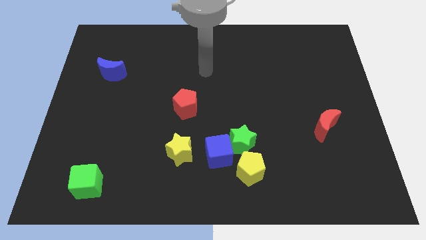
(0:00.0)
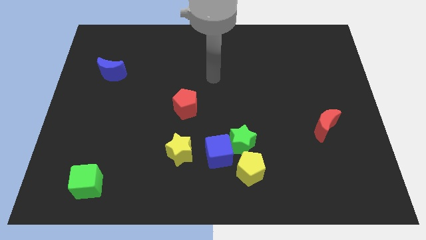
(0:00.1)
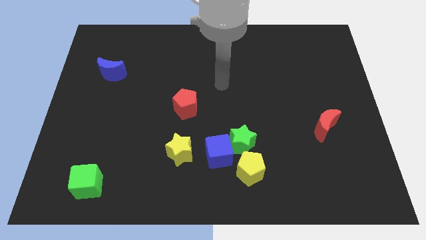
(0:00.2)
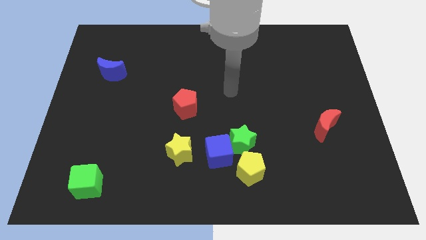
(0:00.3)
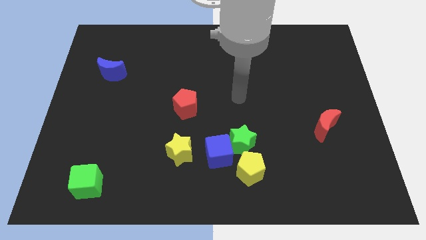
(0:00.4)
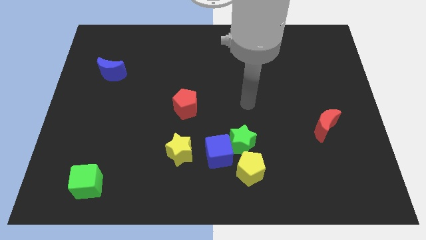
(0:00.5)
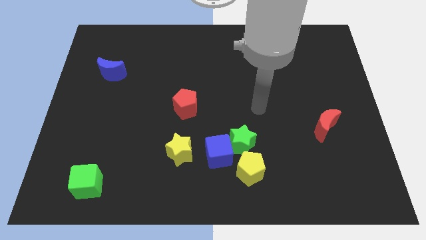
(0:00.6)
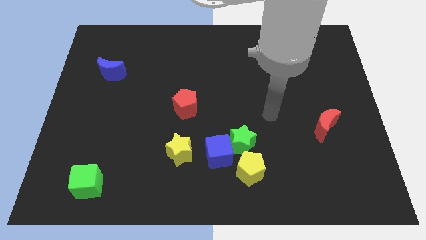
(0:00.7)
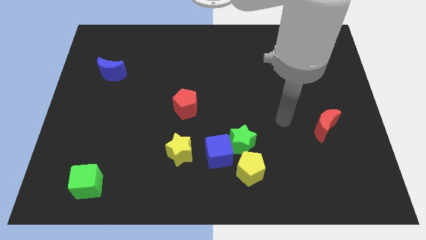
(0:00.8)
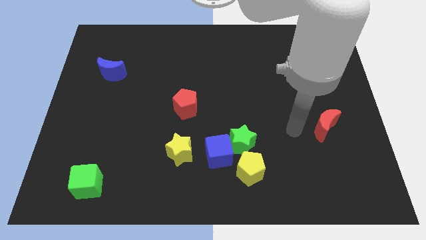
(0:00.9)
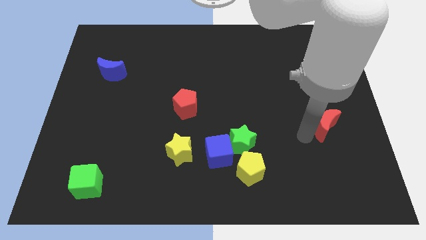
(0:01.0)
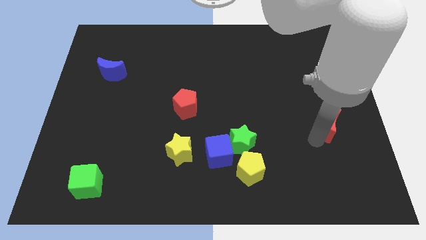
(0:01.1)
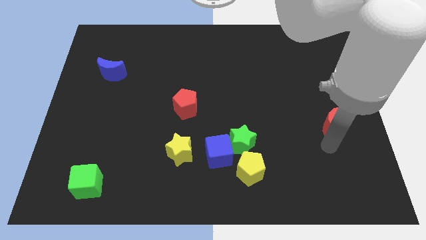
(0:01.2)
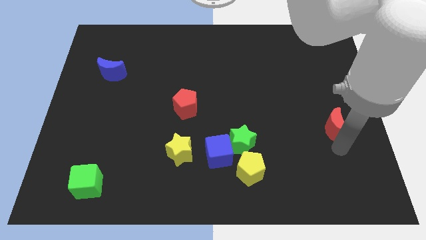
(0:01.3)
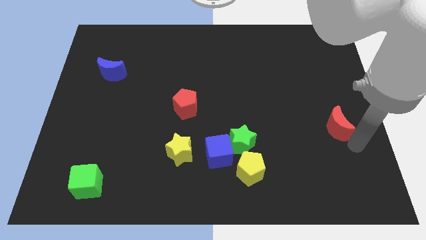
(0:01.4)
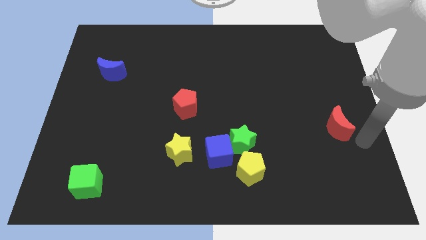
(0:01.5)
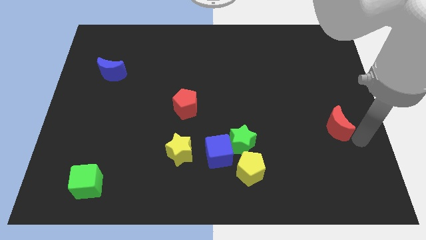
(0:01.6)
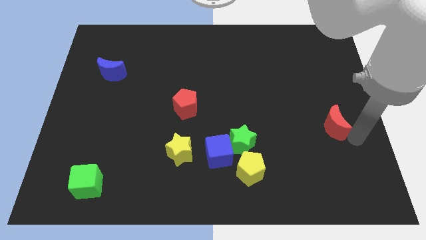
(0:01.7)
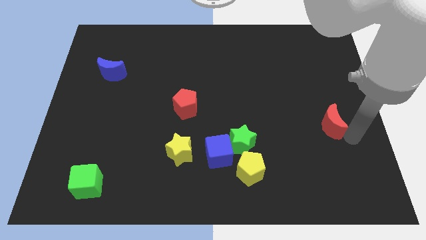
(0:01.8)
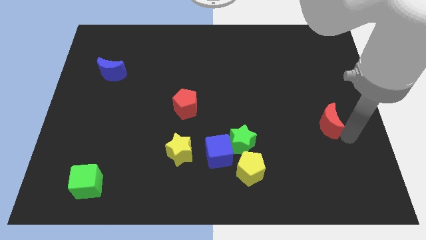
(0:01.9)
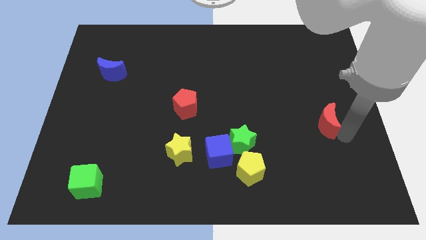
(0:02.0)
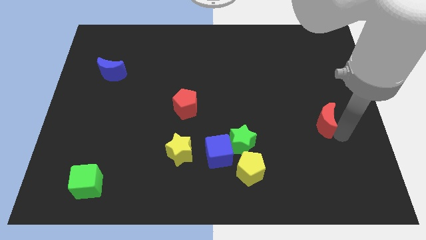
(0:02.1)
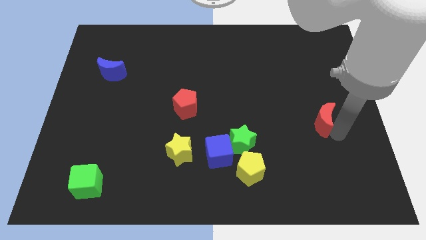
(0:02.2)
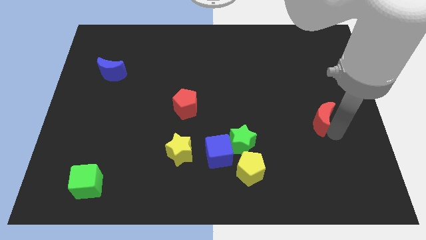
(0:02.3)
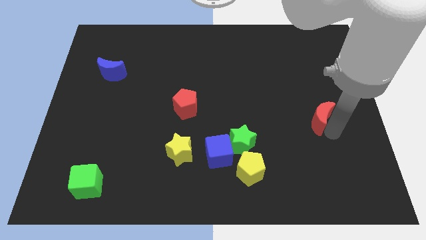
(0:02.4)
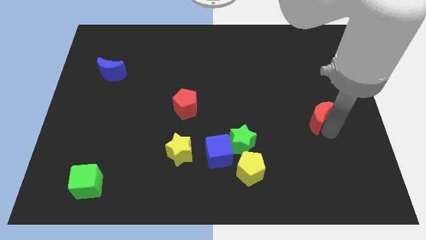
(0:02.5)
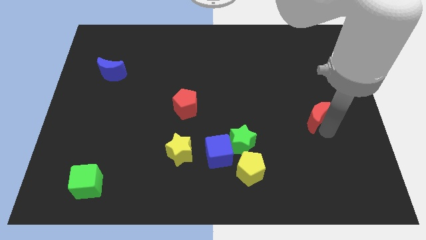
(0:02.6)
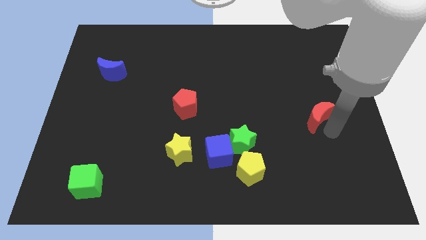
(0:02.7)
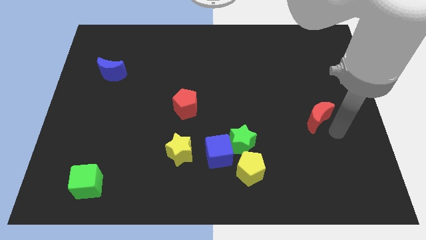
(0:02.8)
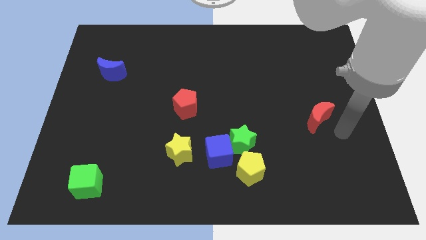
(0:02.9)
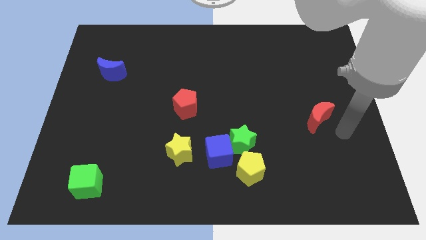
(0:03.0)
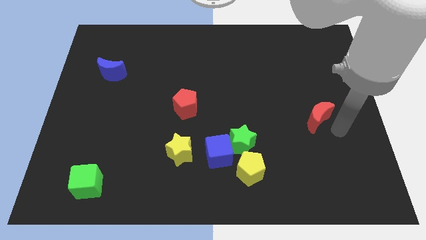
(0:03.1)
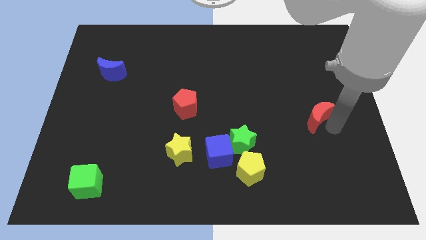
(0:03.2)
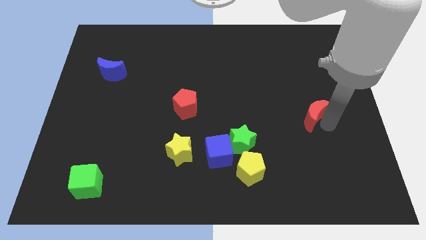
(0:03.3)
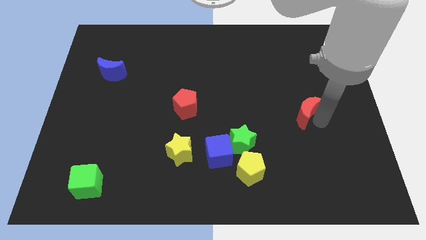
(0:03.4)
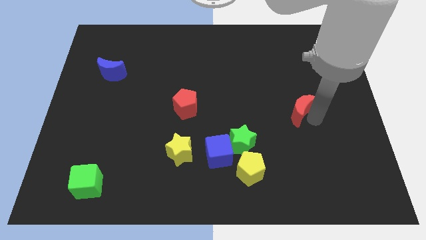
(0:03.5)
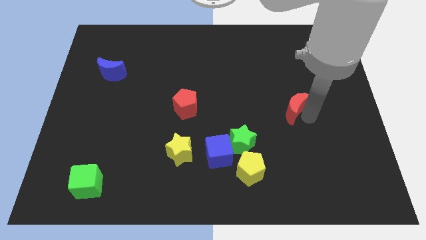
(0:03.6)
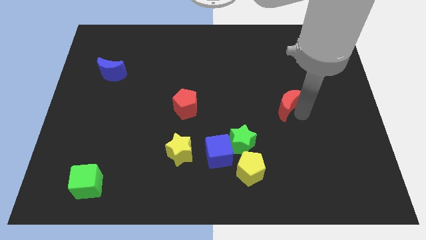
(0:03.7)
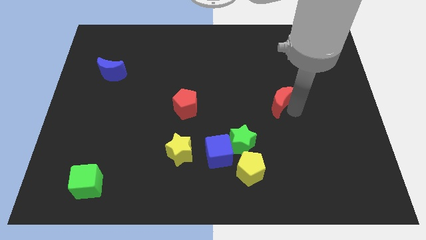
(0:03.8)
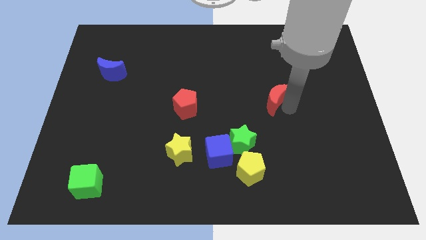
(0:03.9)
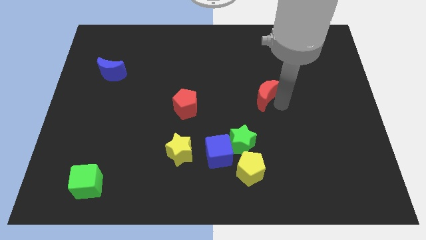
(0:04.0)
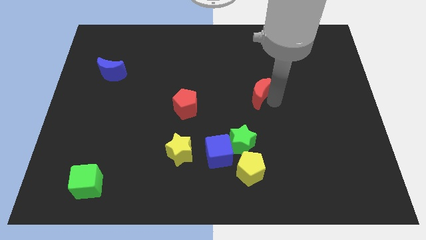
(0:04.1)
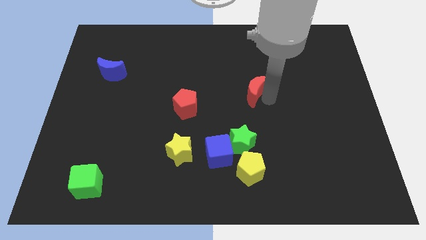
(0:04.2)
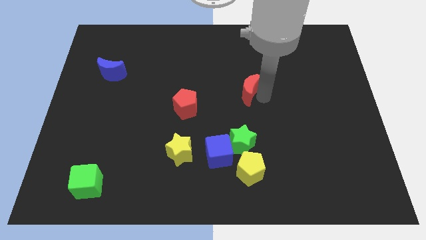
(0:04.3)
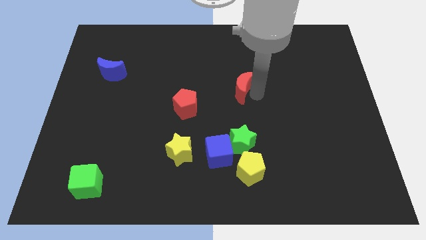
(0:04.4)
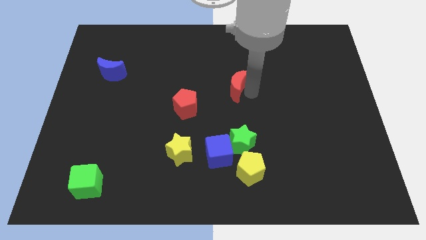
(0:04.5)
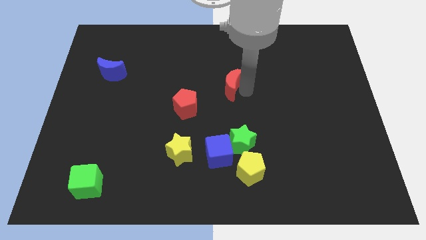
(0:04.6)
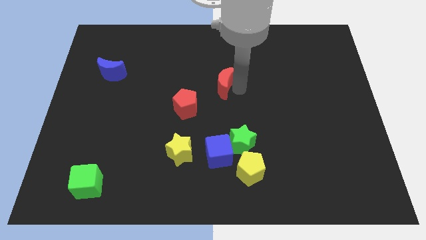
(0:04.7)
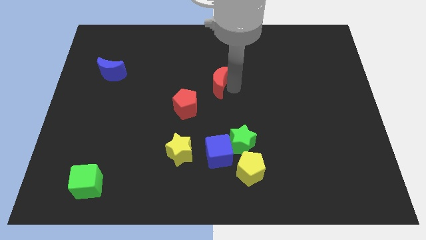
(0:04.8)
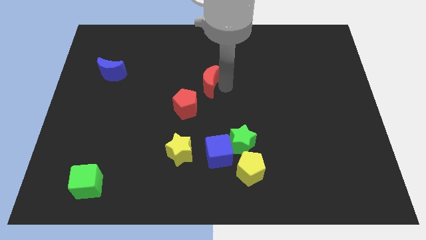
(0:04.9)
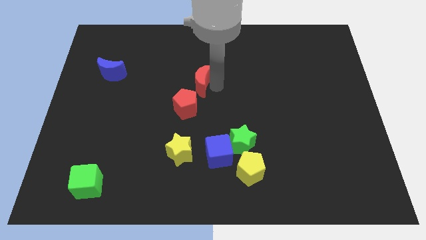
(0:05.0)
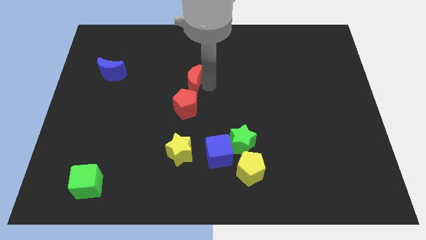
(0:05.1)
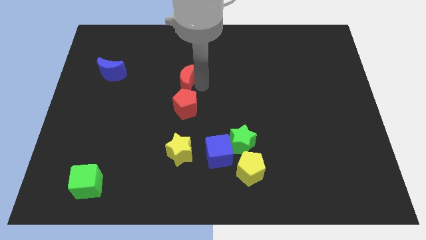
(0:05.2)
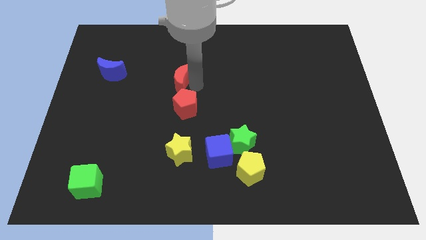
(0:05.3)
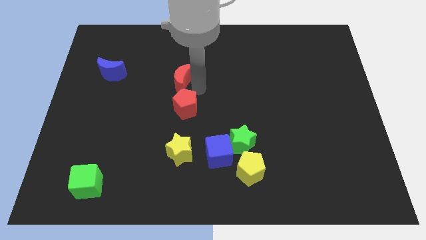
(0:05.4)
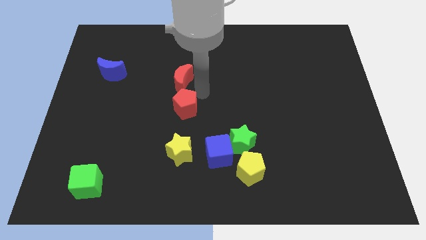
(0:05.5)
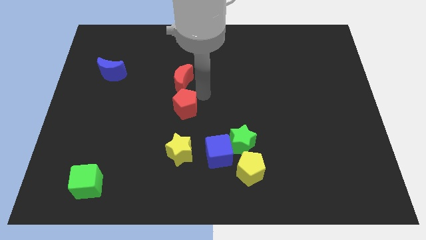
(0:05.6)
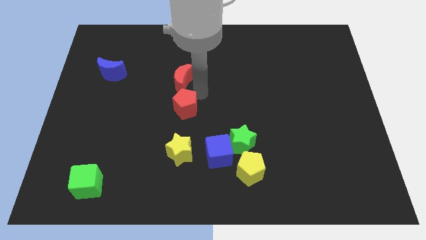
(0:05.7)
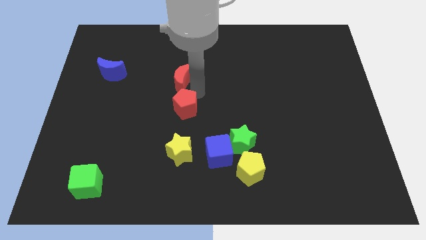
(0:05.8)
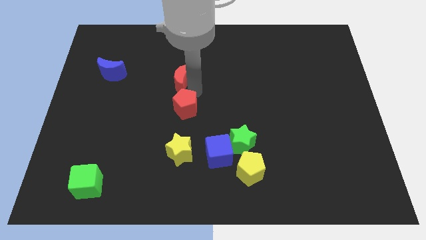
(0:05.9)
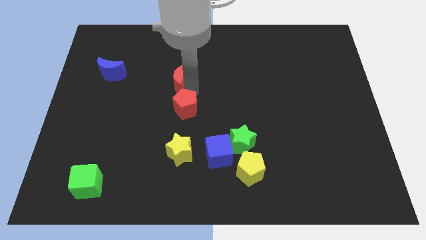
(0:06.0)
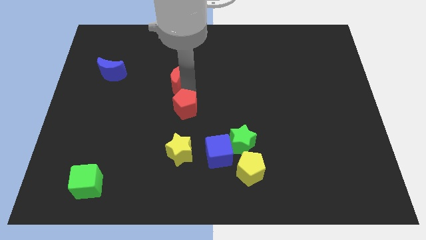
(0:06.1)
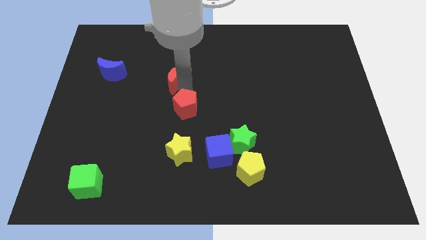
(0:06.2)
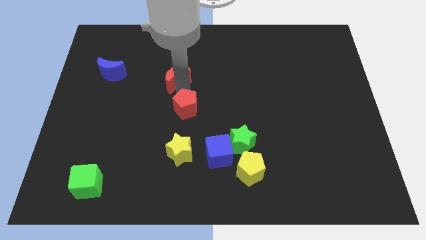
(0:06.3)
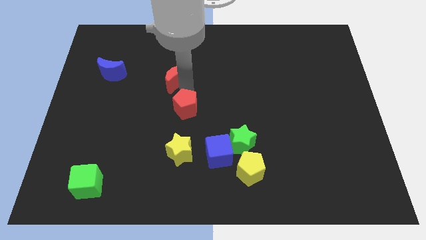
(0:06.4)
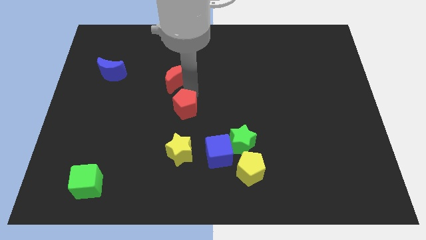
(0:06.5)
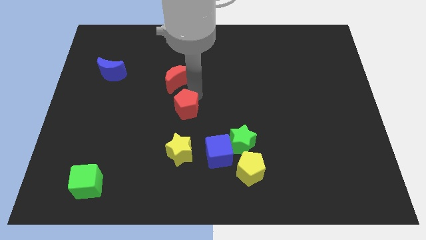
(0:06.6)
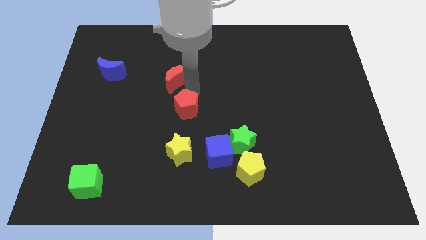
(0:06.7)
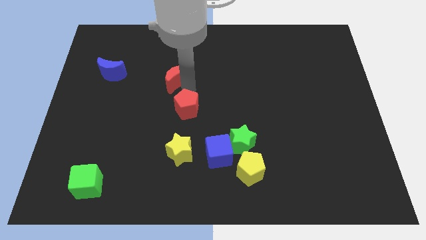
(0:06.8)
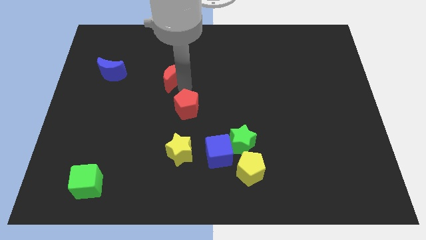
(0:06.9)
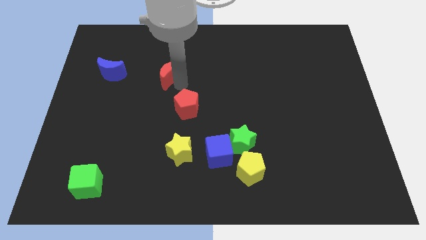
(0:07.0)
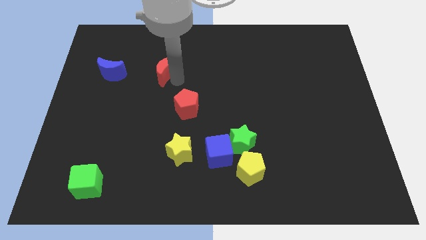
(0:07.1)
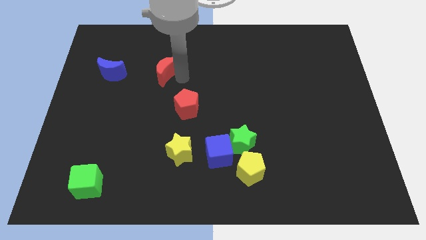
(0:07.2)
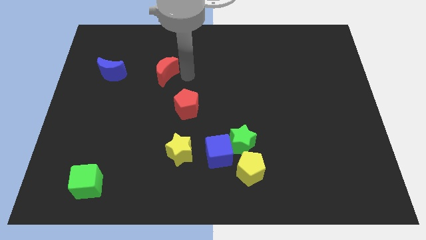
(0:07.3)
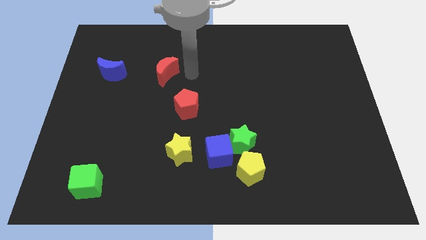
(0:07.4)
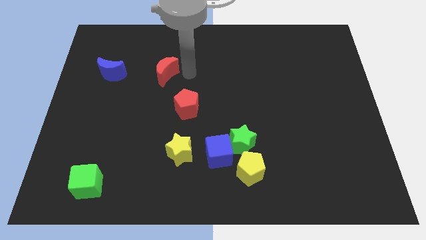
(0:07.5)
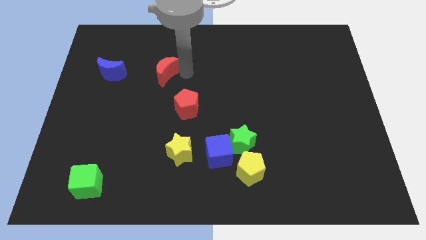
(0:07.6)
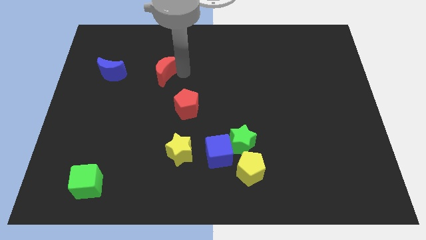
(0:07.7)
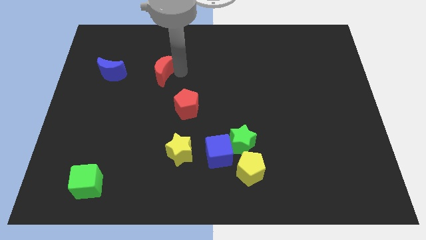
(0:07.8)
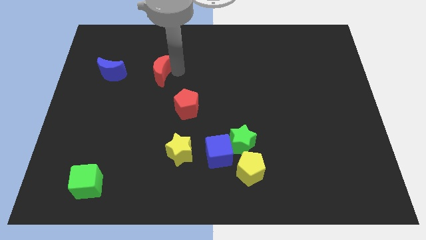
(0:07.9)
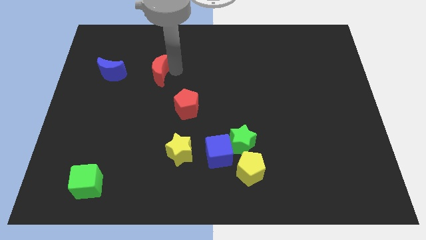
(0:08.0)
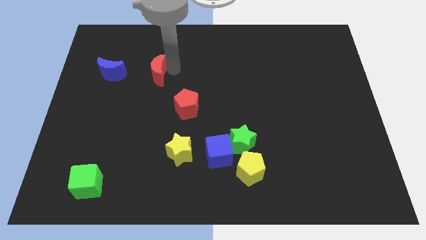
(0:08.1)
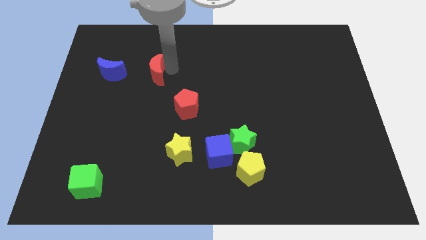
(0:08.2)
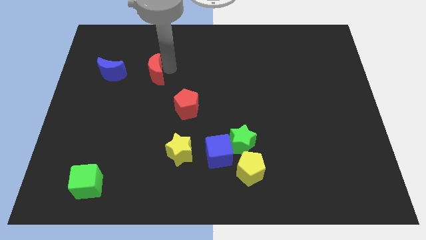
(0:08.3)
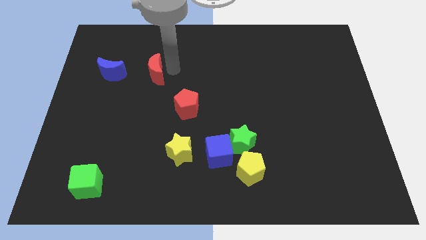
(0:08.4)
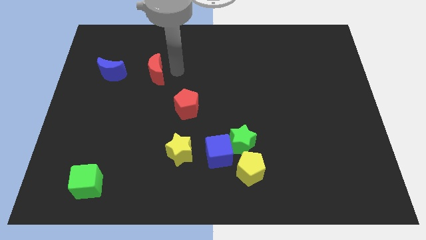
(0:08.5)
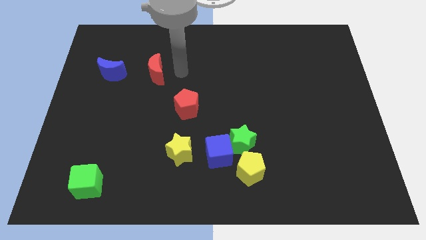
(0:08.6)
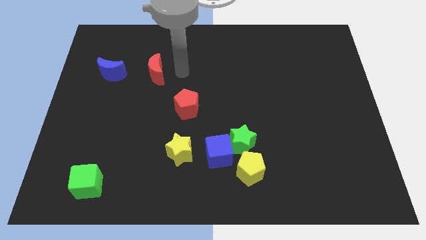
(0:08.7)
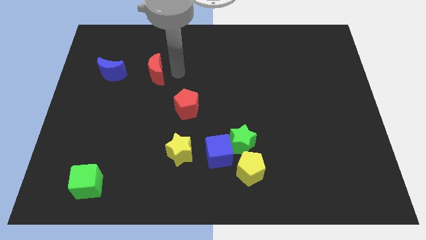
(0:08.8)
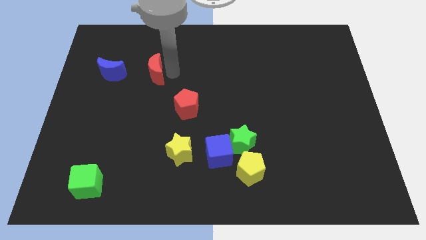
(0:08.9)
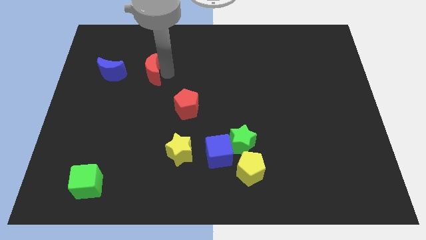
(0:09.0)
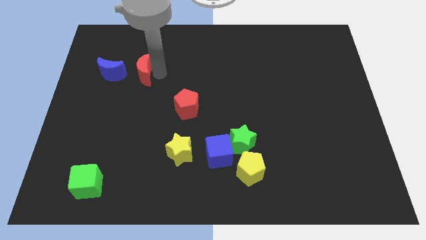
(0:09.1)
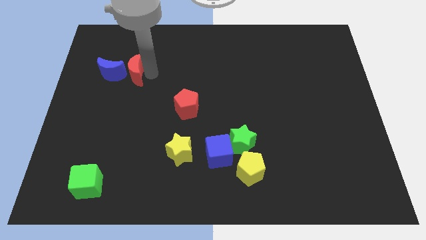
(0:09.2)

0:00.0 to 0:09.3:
slide the red moon close to the blue moon
